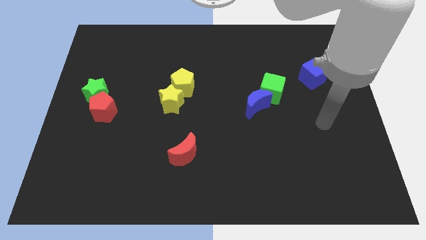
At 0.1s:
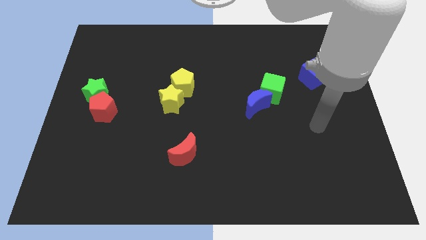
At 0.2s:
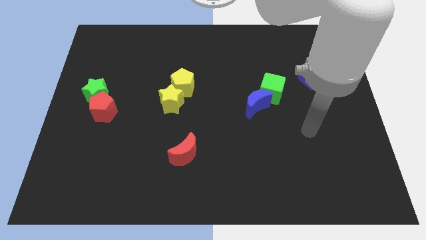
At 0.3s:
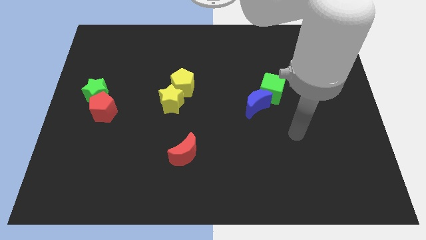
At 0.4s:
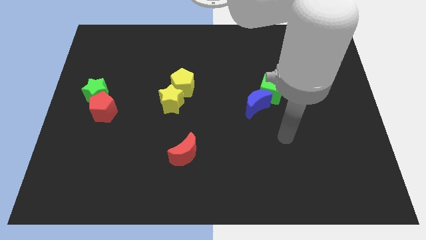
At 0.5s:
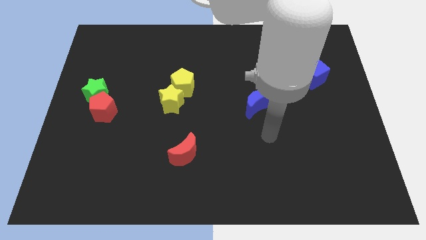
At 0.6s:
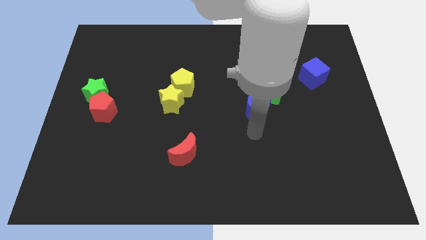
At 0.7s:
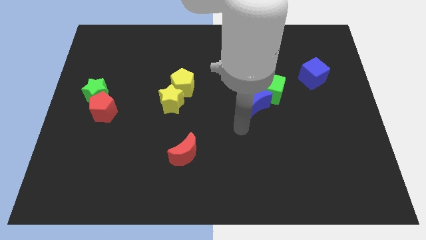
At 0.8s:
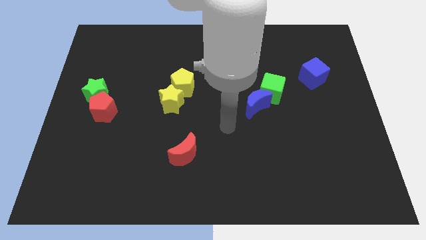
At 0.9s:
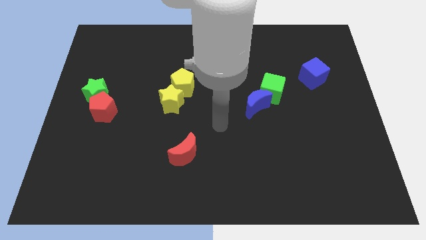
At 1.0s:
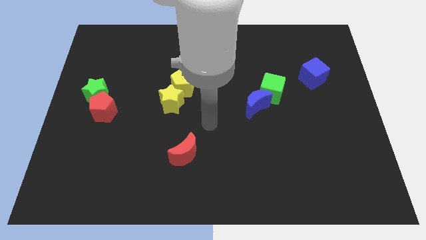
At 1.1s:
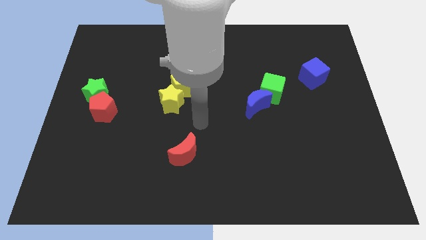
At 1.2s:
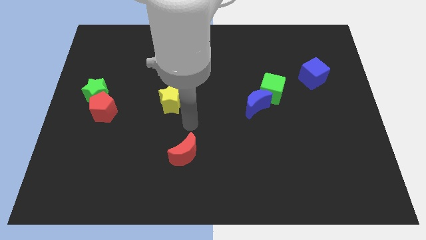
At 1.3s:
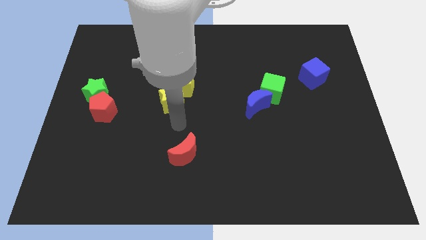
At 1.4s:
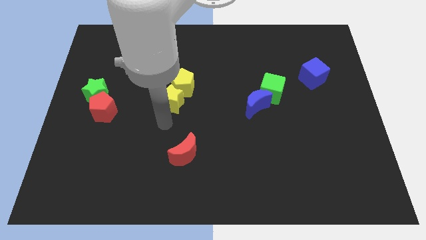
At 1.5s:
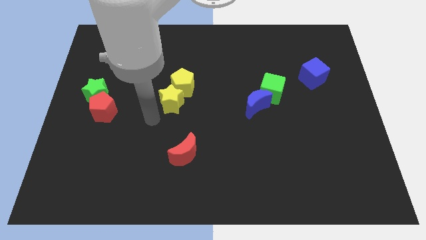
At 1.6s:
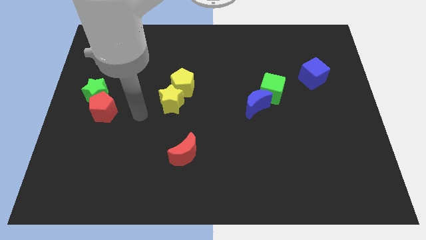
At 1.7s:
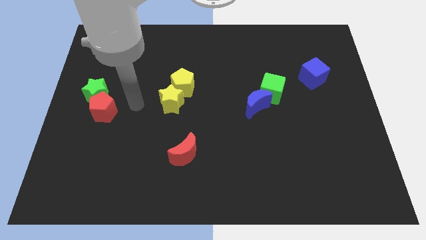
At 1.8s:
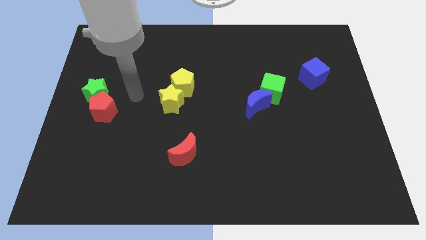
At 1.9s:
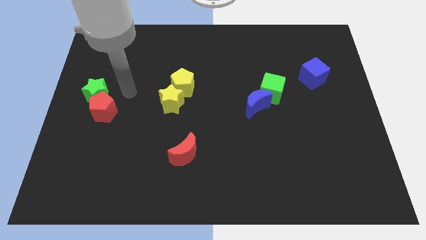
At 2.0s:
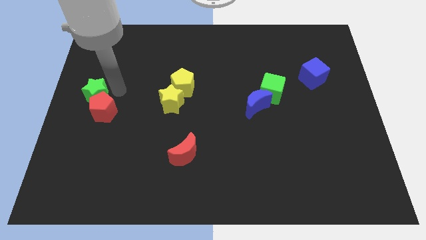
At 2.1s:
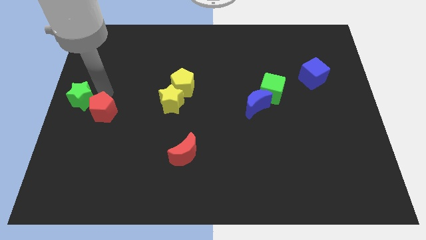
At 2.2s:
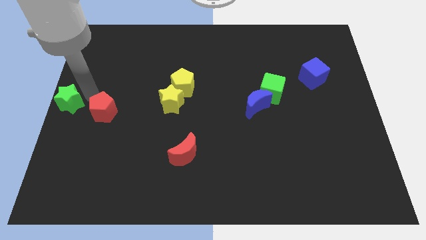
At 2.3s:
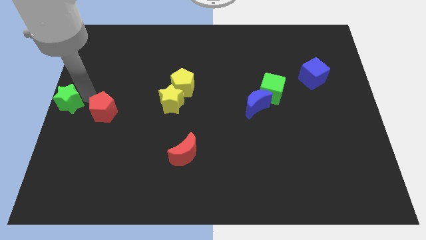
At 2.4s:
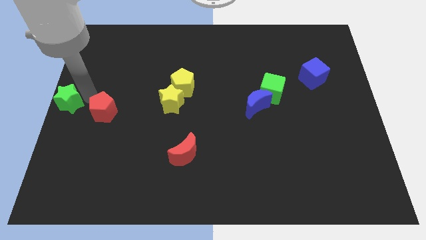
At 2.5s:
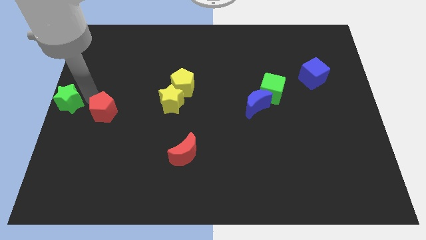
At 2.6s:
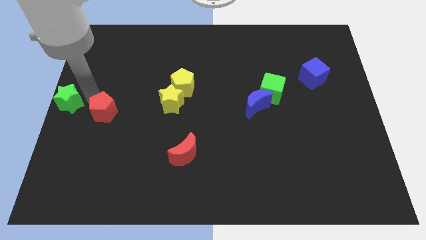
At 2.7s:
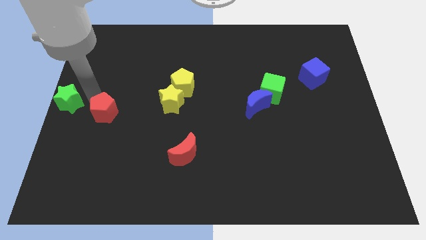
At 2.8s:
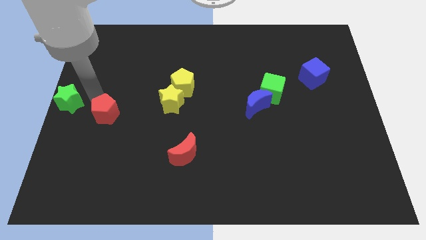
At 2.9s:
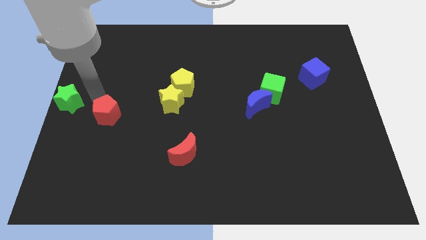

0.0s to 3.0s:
pull the red pentagon apart from the green star

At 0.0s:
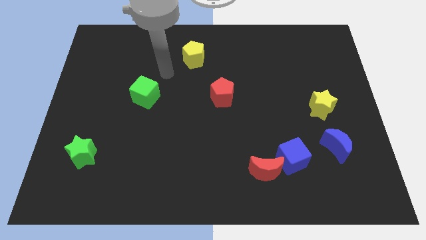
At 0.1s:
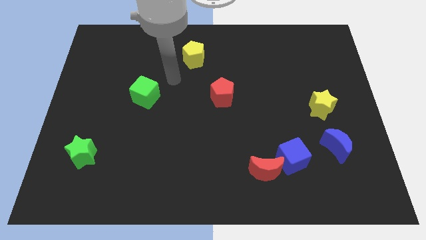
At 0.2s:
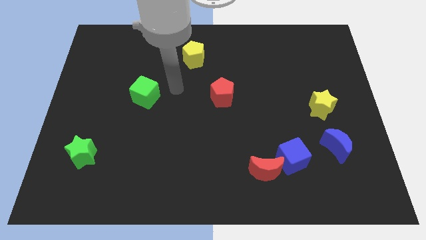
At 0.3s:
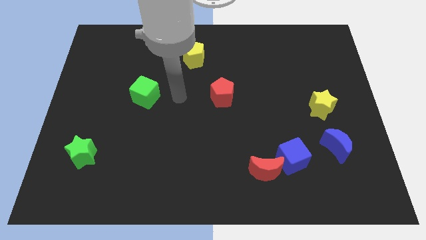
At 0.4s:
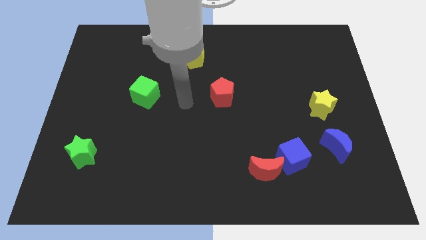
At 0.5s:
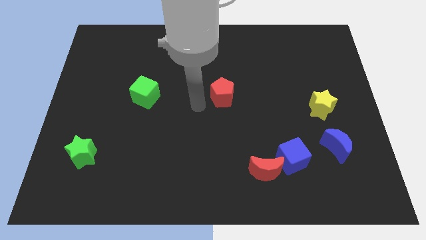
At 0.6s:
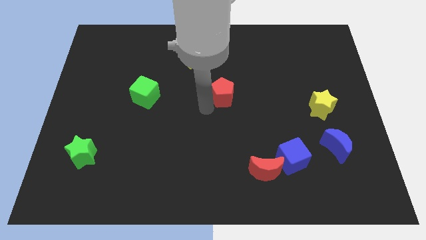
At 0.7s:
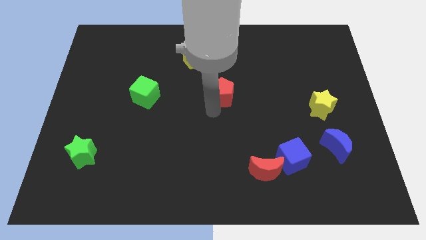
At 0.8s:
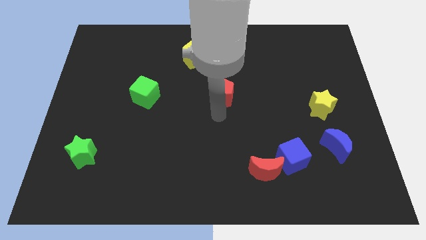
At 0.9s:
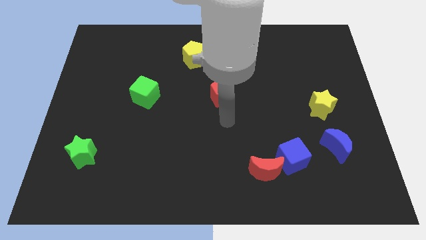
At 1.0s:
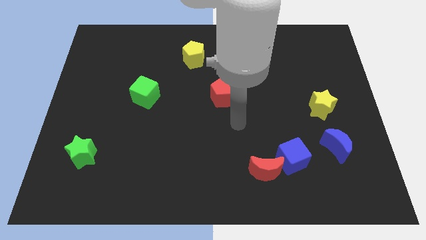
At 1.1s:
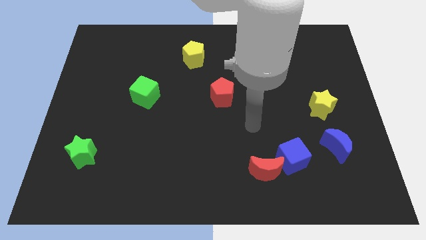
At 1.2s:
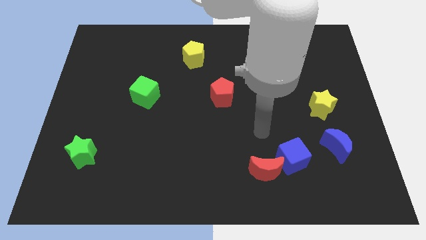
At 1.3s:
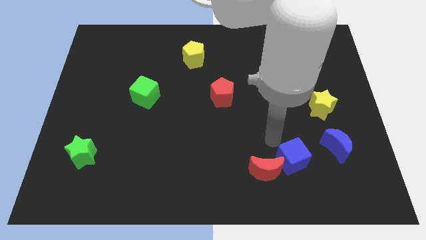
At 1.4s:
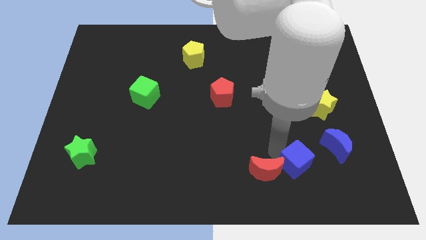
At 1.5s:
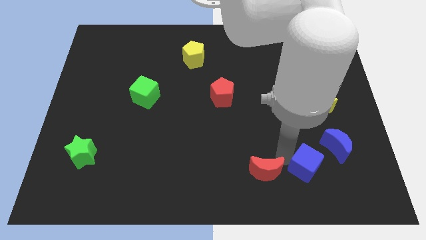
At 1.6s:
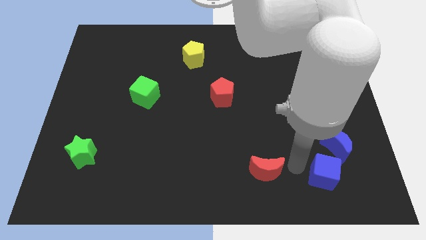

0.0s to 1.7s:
pull the red moon apart from the blue cube

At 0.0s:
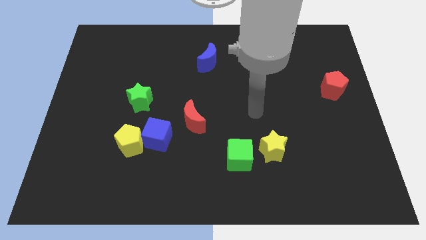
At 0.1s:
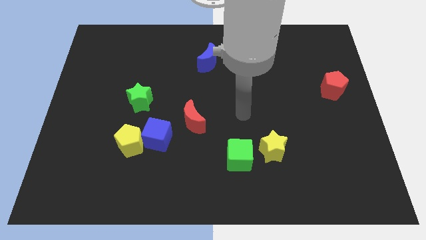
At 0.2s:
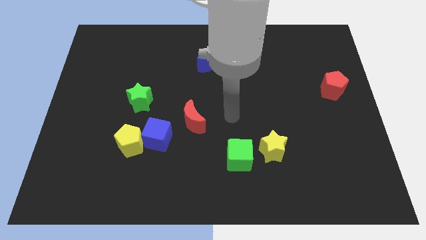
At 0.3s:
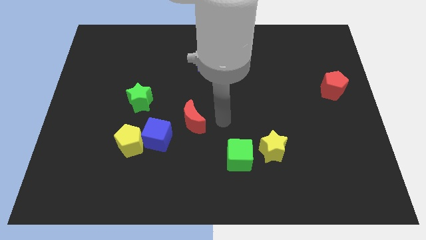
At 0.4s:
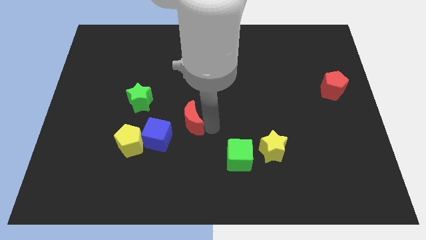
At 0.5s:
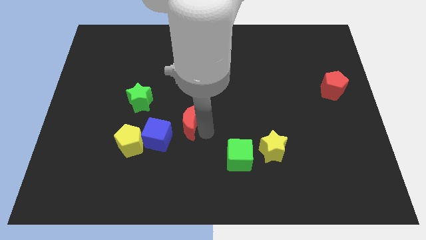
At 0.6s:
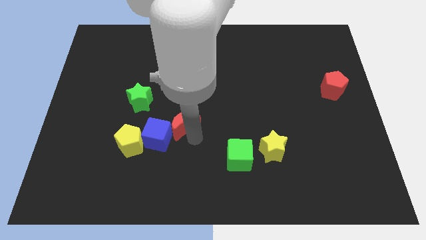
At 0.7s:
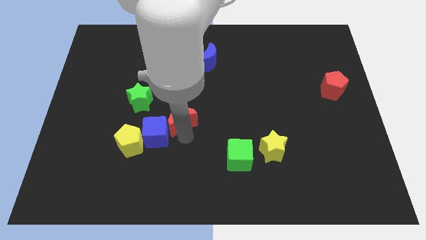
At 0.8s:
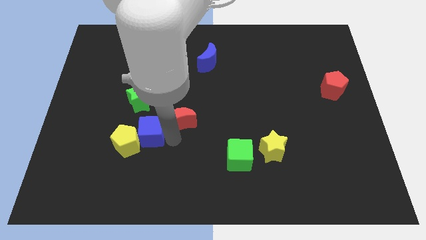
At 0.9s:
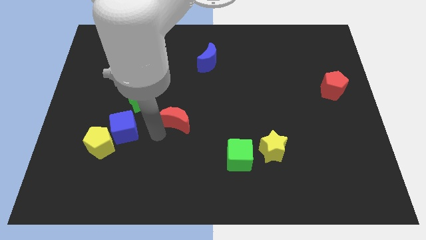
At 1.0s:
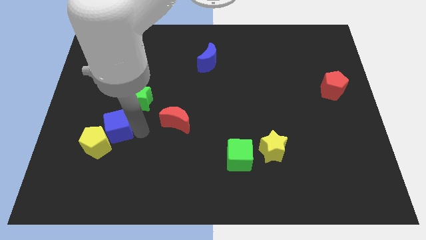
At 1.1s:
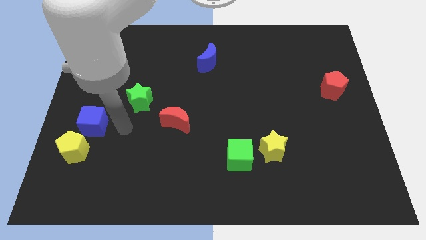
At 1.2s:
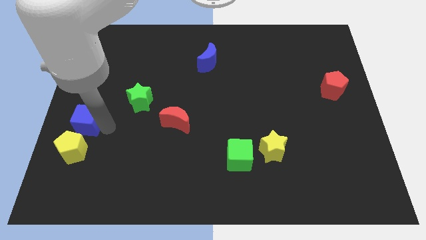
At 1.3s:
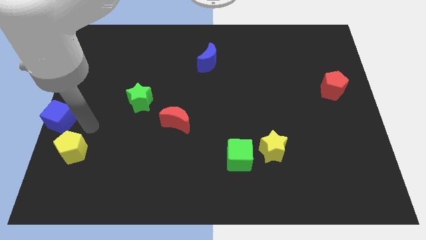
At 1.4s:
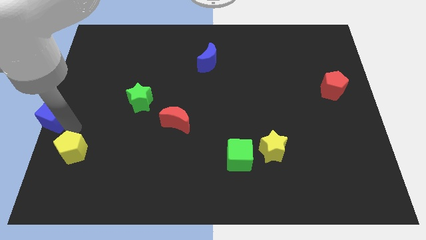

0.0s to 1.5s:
move the yellow pentagon away from the blue cube

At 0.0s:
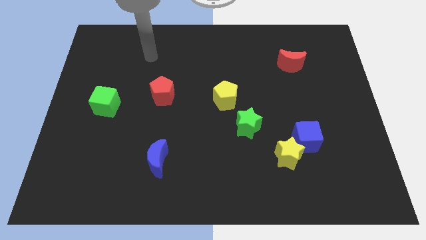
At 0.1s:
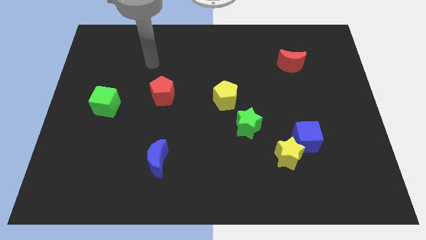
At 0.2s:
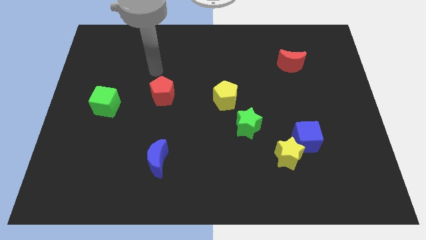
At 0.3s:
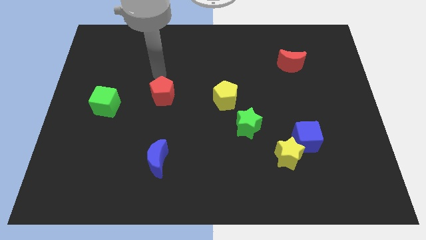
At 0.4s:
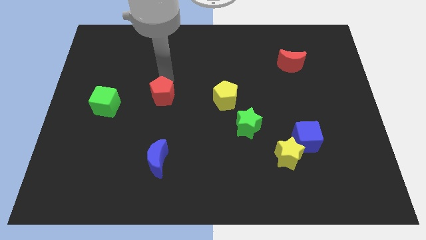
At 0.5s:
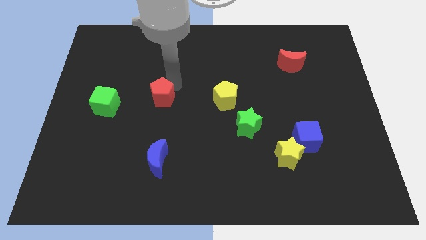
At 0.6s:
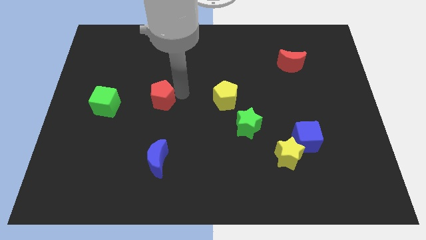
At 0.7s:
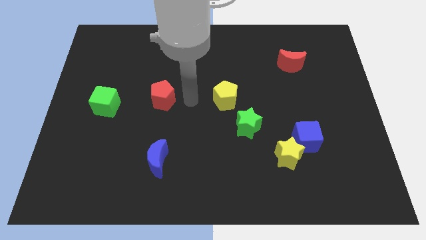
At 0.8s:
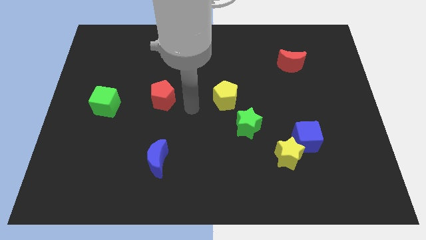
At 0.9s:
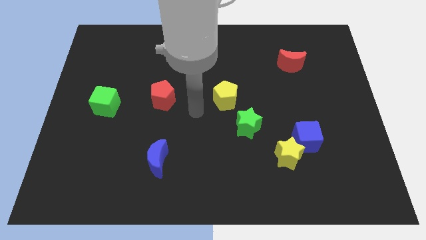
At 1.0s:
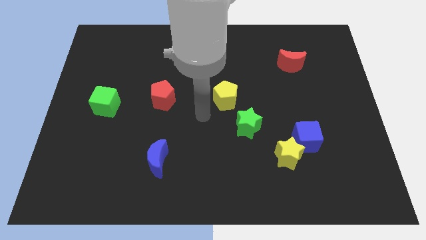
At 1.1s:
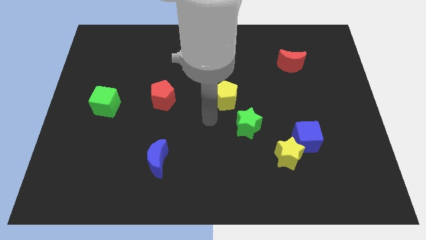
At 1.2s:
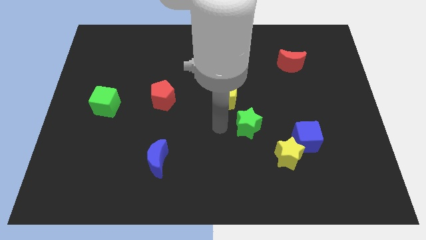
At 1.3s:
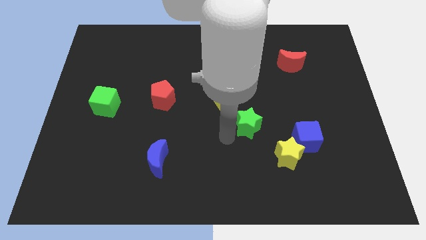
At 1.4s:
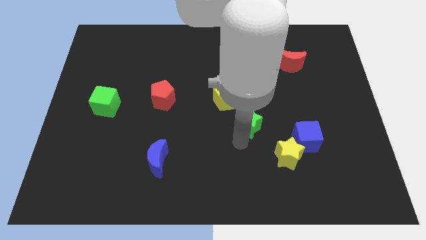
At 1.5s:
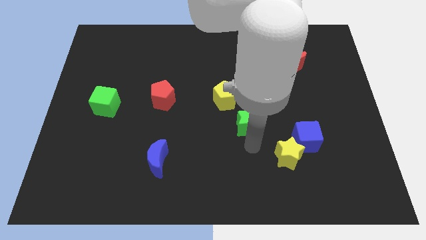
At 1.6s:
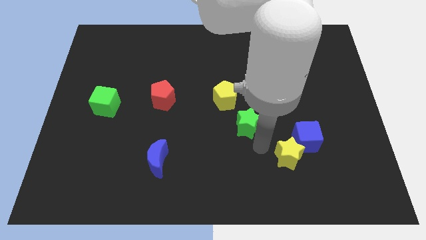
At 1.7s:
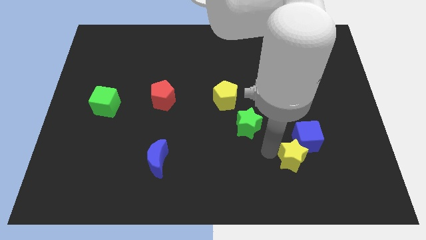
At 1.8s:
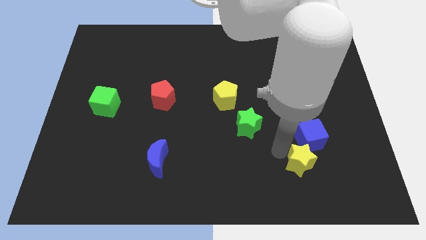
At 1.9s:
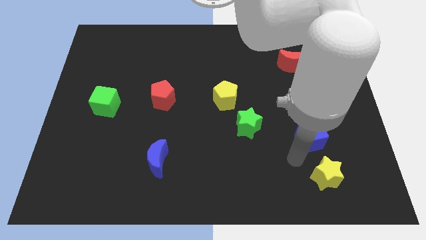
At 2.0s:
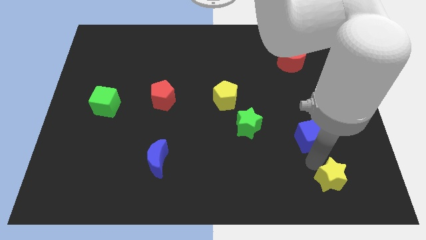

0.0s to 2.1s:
move the blue cube away from the yellow star

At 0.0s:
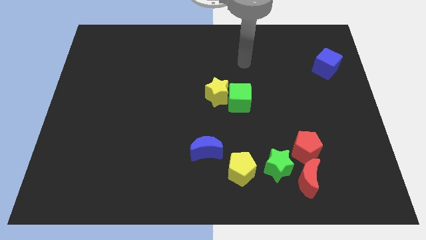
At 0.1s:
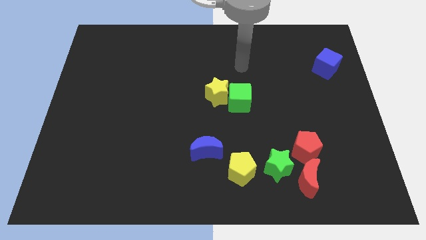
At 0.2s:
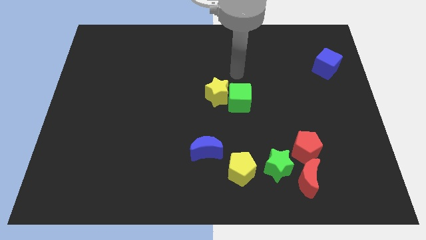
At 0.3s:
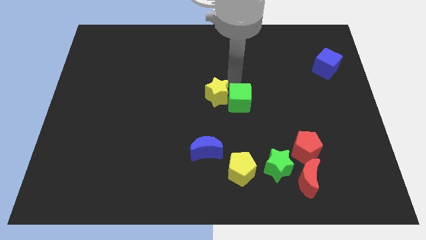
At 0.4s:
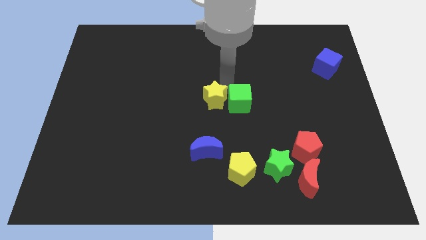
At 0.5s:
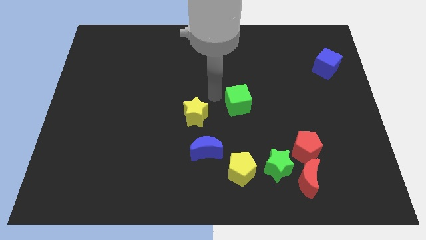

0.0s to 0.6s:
pull the green cube apart from the yellow star

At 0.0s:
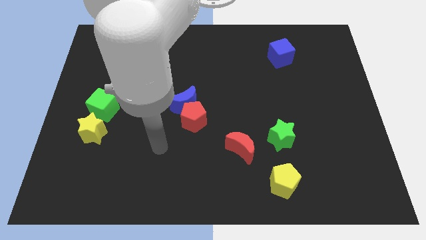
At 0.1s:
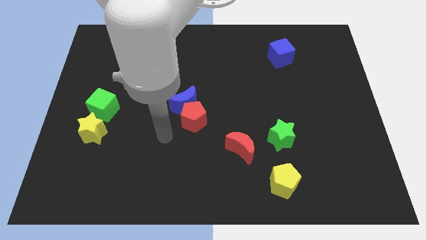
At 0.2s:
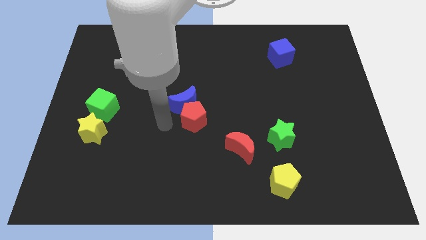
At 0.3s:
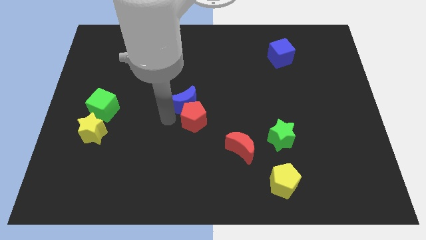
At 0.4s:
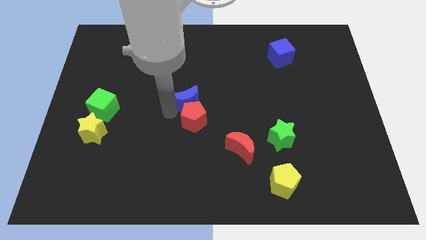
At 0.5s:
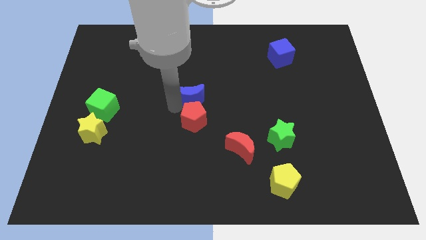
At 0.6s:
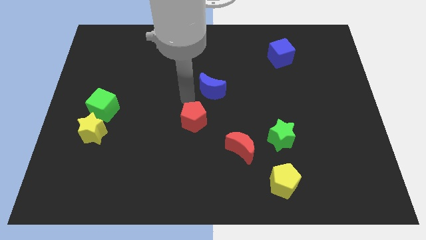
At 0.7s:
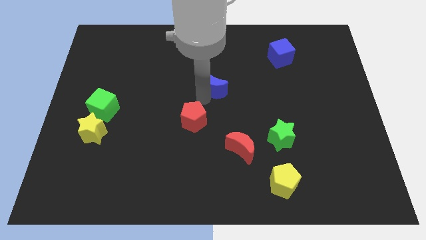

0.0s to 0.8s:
move the red pentagon away from the blue moon
